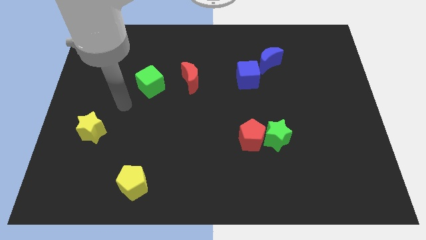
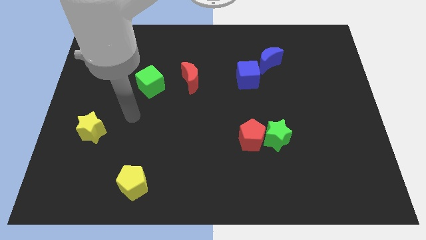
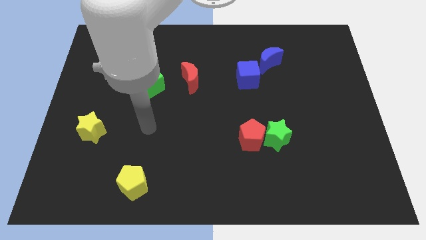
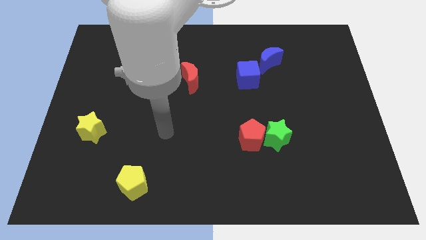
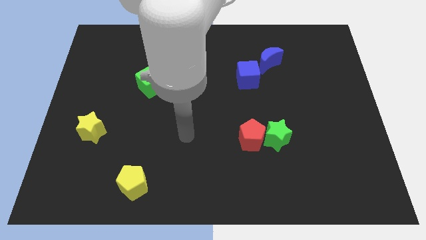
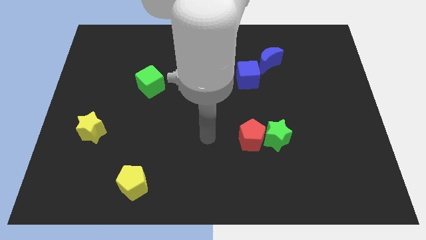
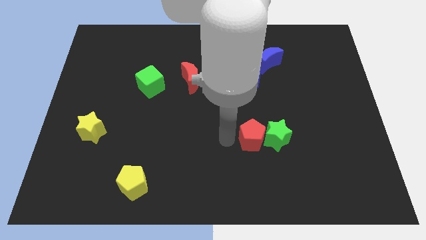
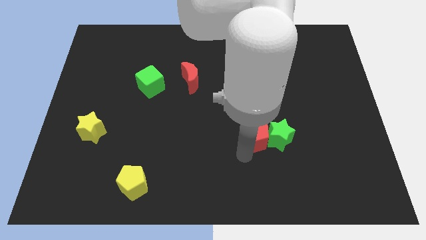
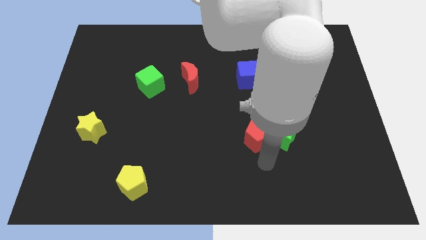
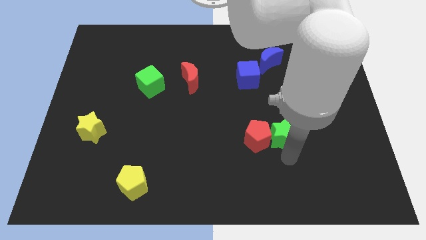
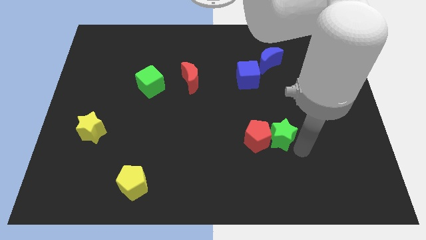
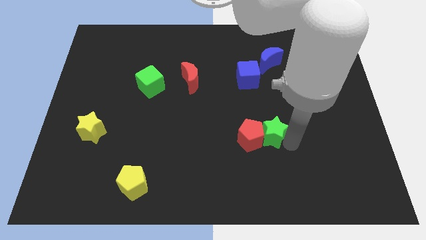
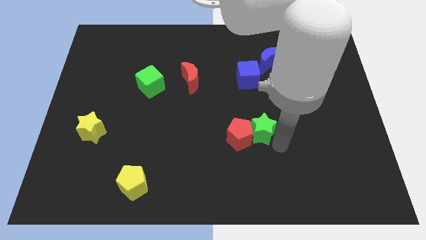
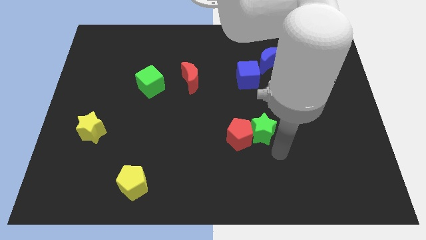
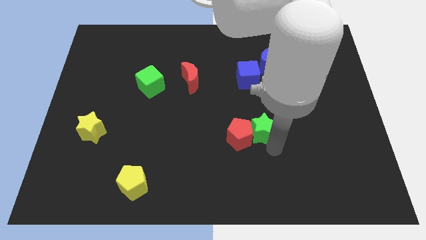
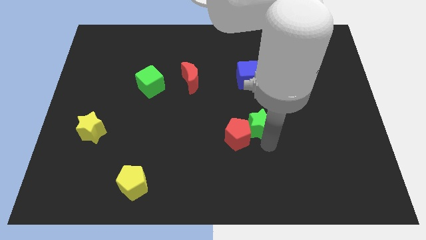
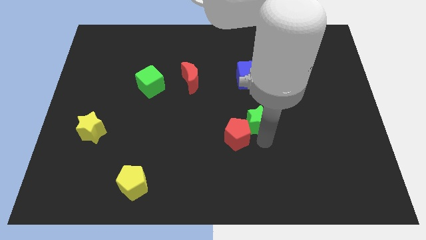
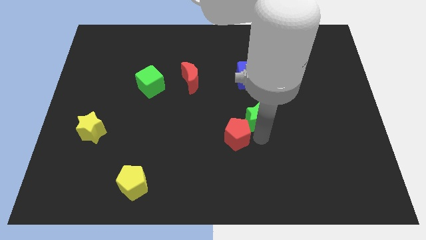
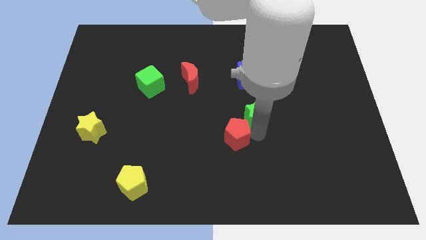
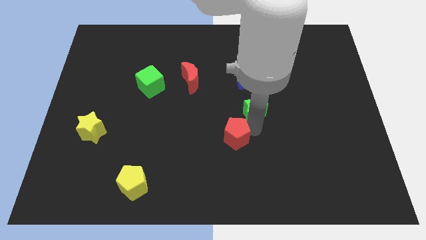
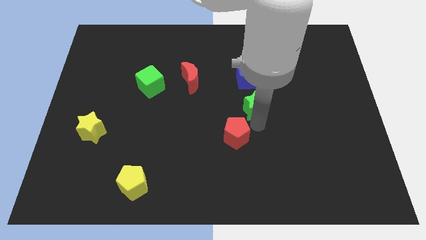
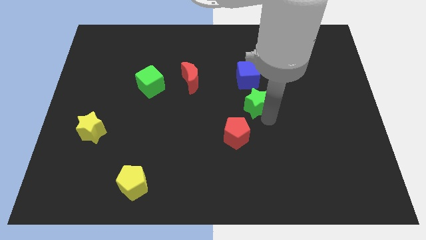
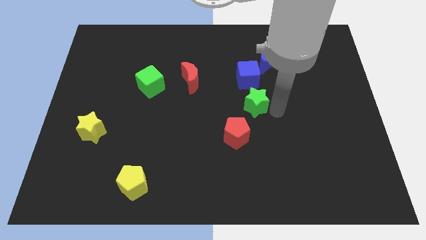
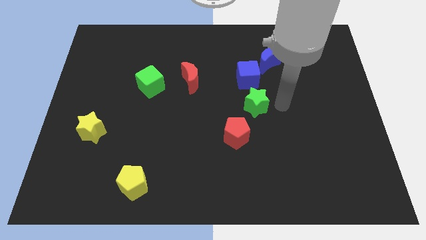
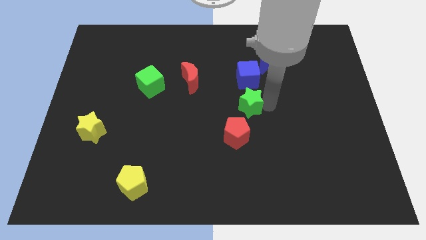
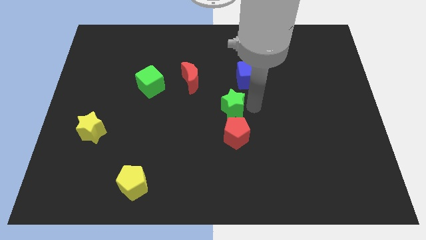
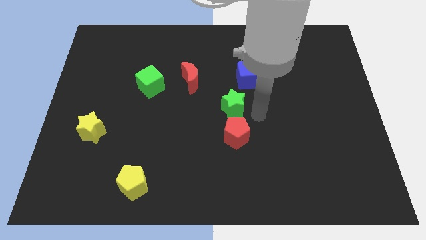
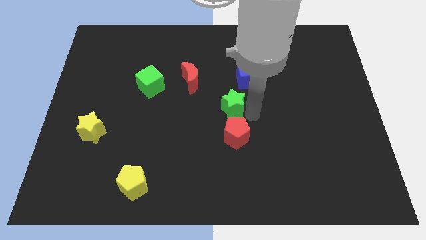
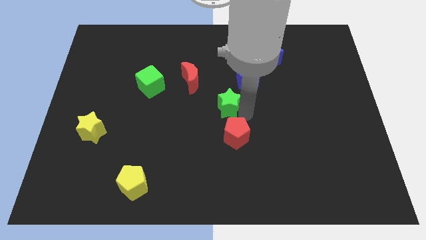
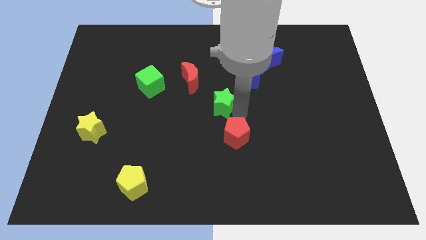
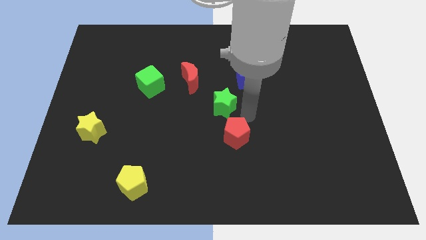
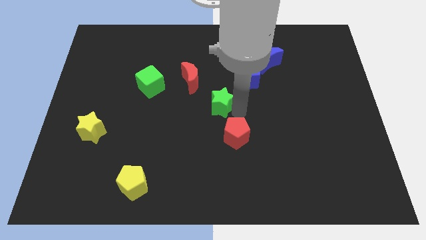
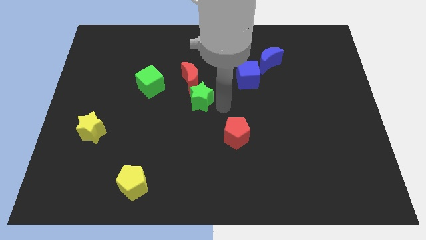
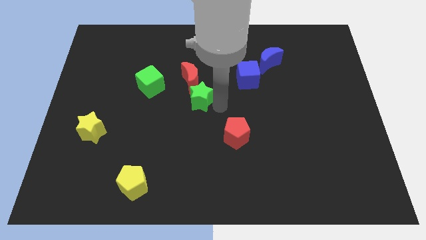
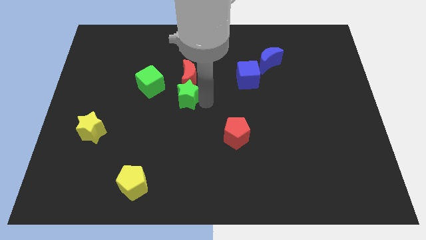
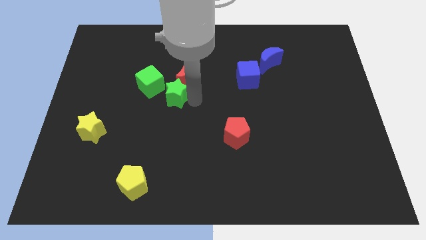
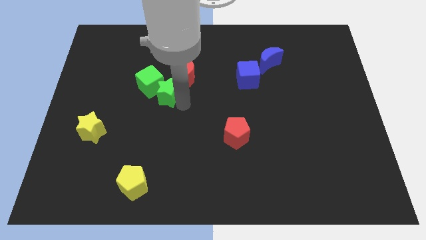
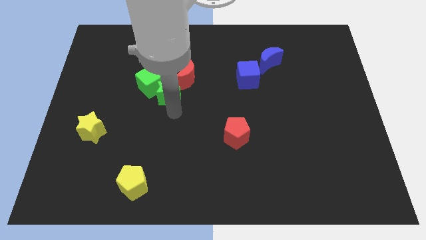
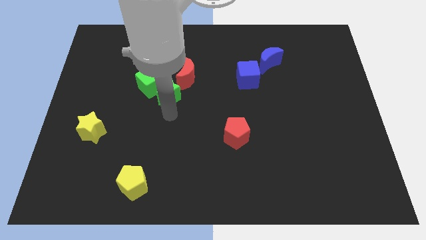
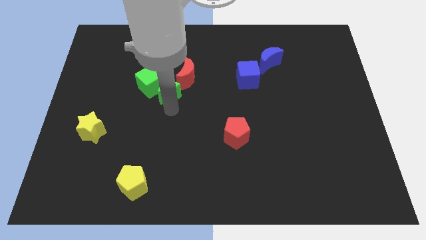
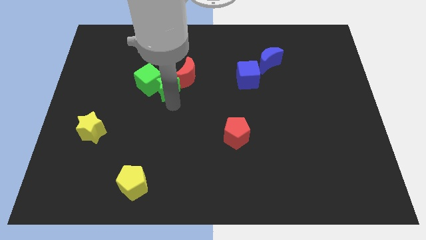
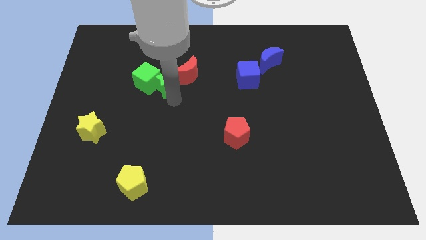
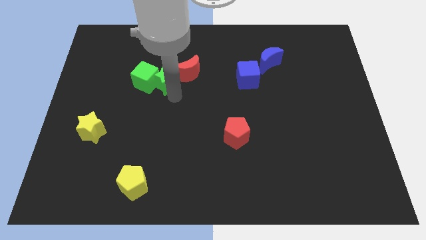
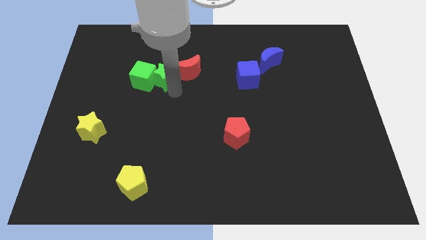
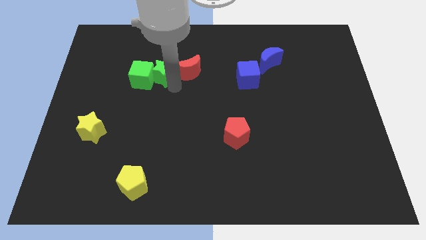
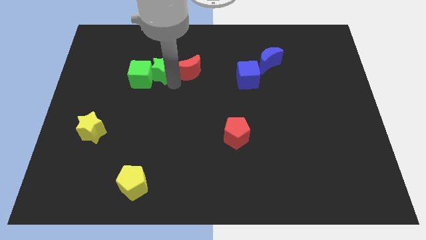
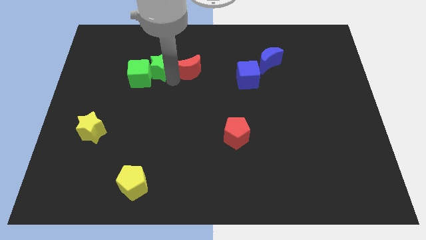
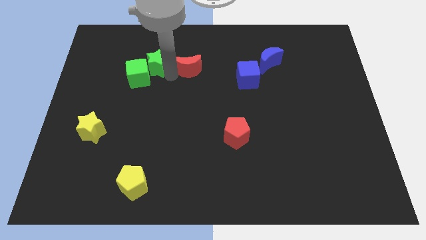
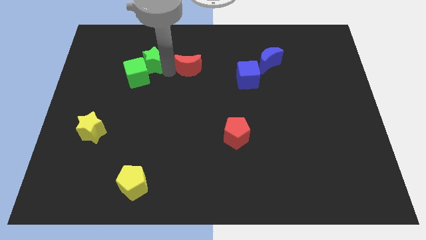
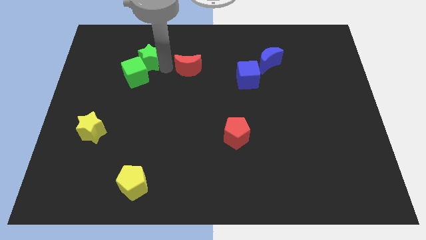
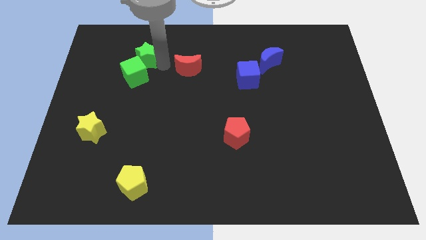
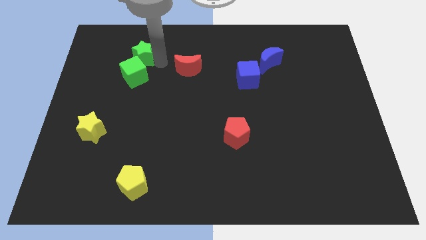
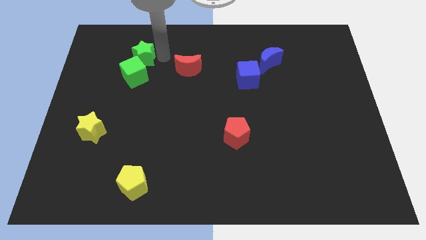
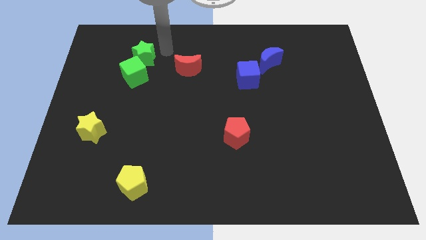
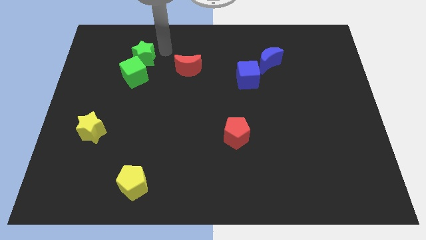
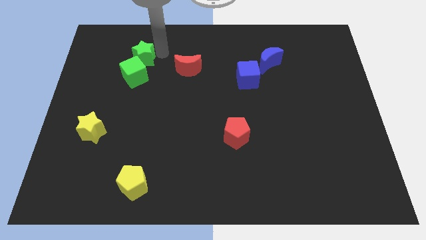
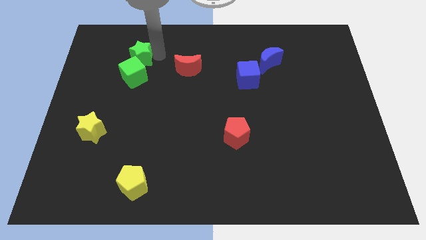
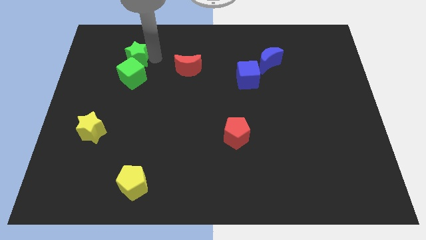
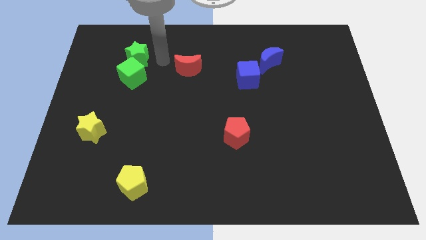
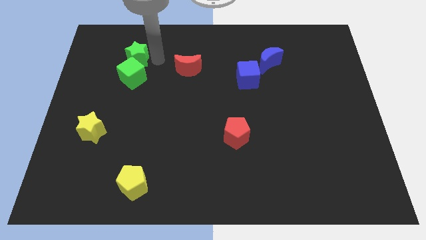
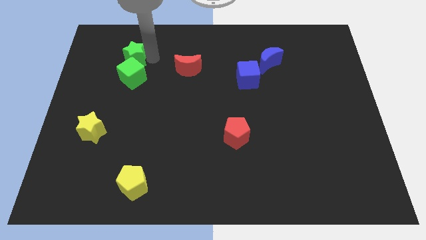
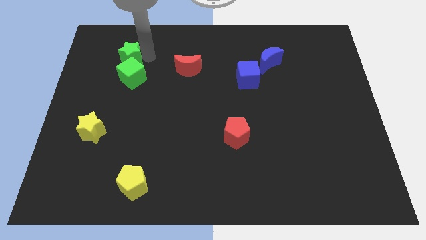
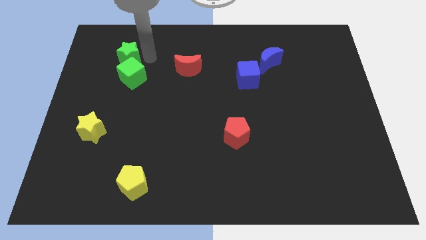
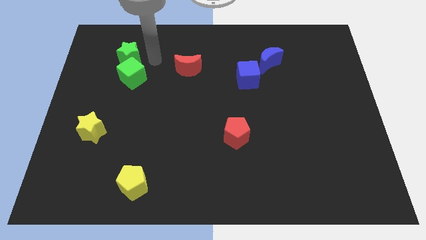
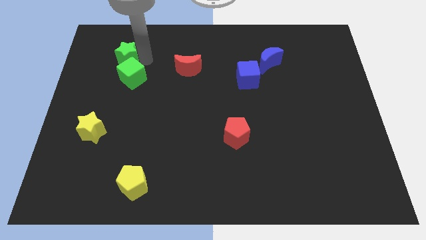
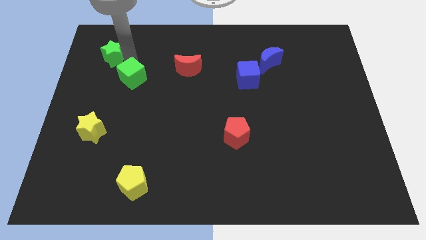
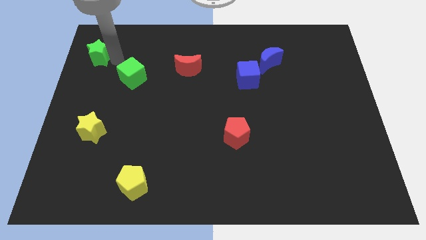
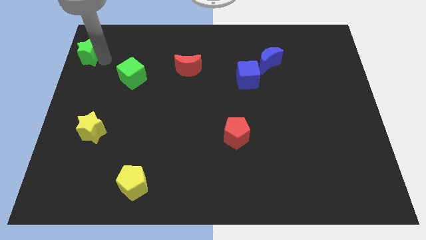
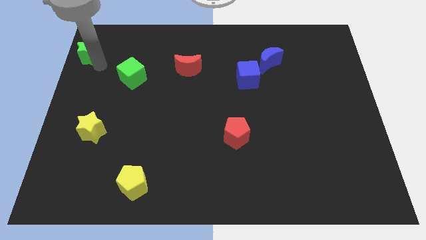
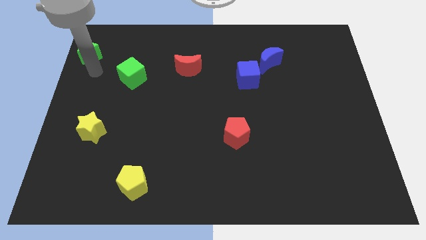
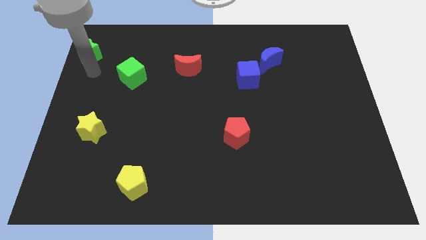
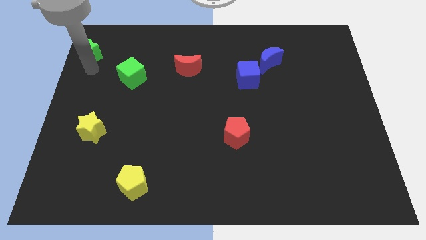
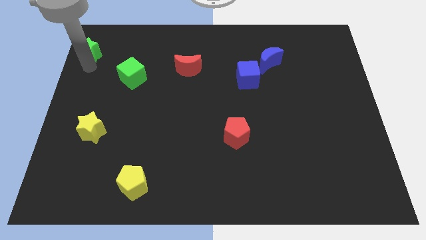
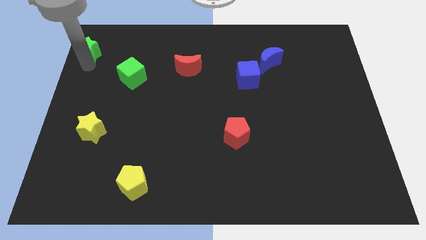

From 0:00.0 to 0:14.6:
put the green star to the upper left corner
